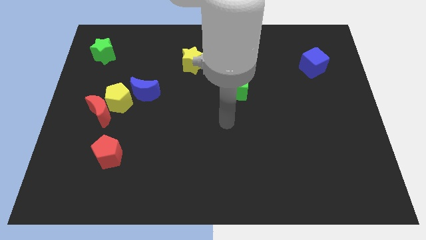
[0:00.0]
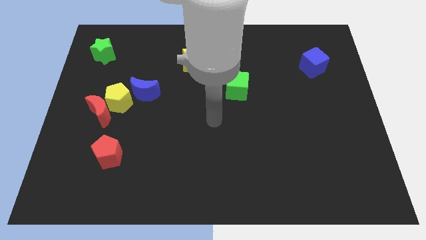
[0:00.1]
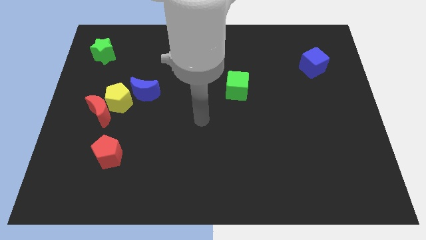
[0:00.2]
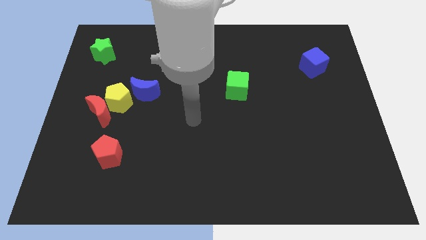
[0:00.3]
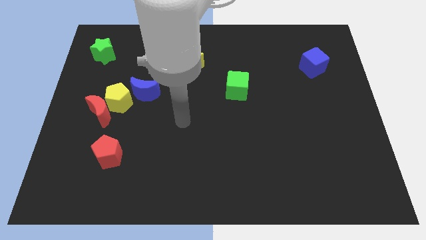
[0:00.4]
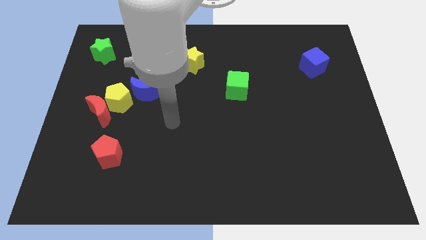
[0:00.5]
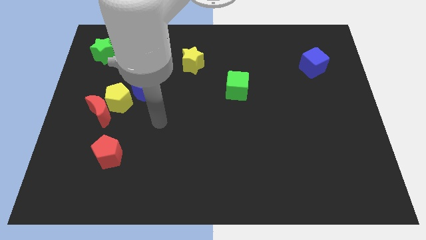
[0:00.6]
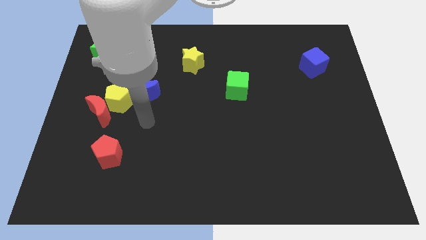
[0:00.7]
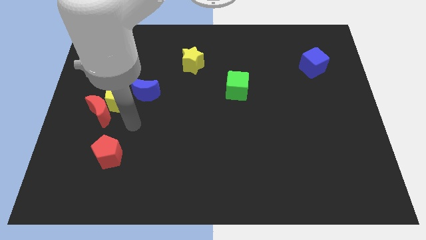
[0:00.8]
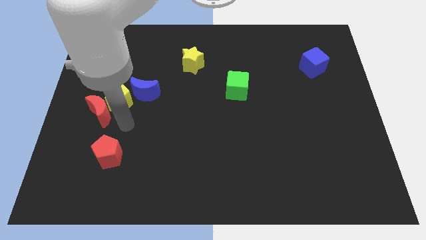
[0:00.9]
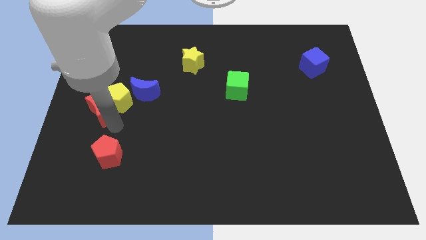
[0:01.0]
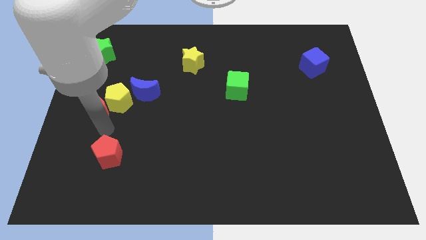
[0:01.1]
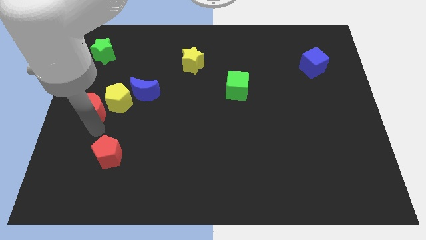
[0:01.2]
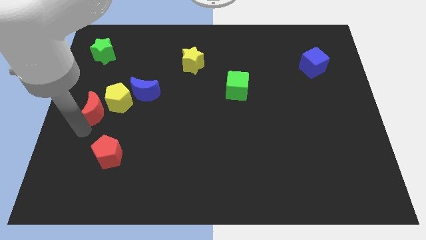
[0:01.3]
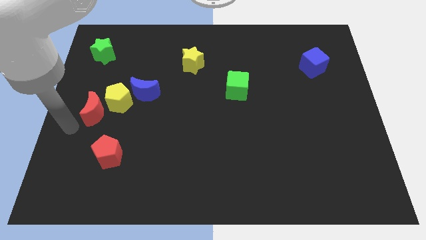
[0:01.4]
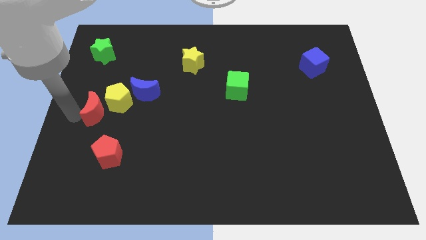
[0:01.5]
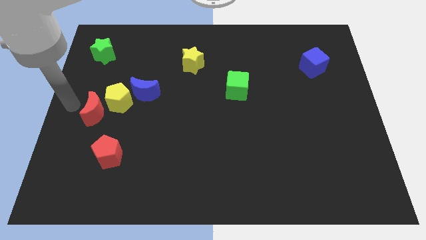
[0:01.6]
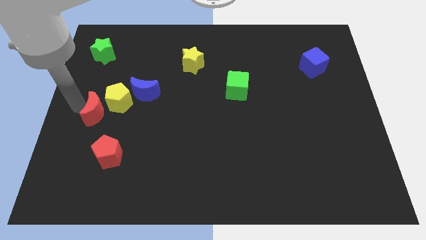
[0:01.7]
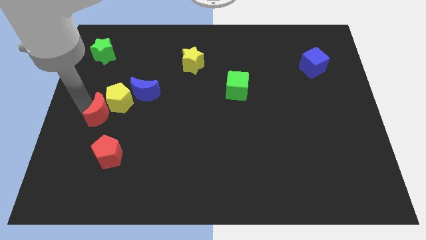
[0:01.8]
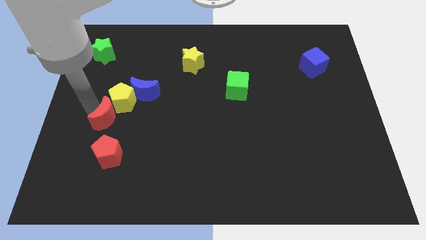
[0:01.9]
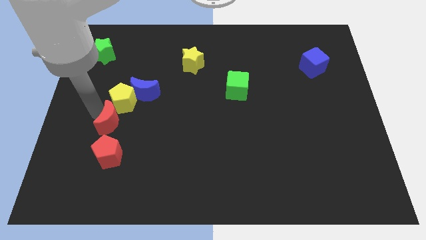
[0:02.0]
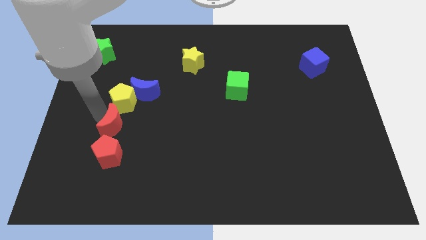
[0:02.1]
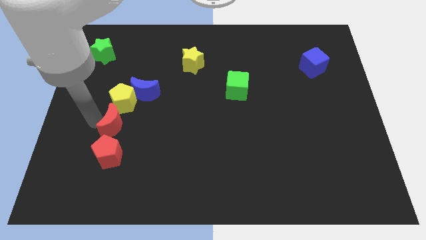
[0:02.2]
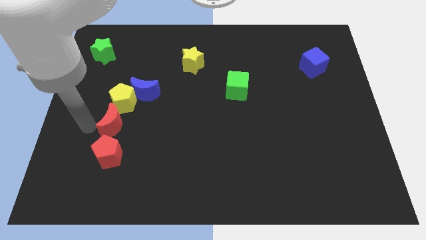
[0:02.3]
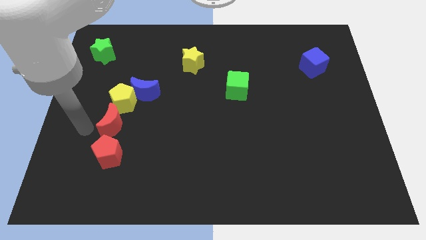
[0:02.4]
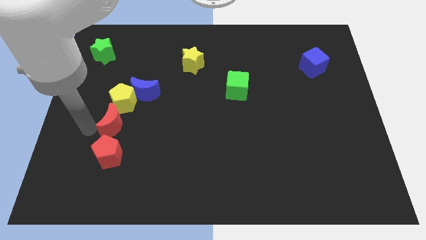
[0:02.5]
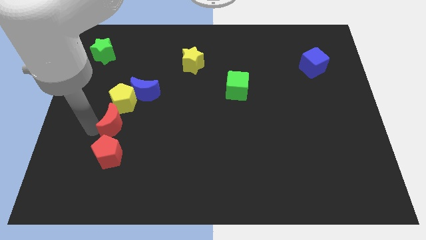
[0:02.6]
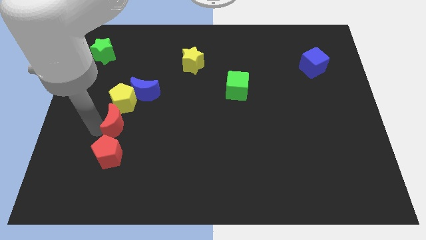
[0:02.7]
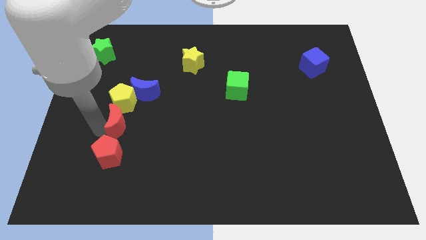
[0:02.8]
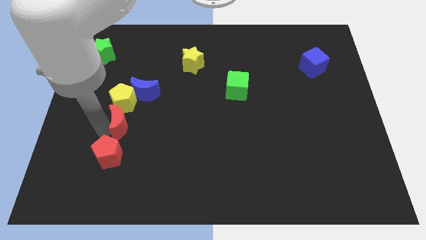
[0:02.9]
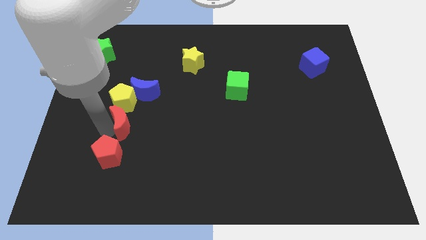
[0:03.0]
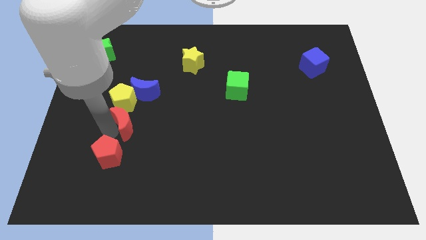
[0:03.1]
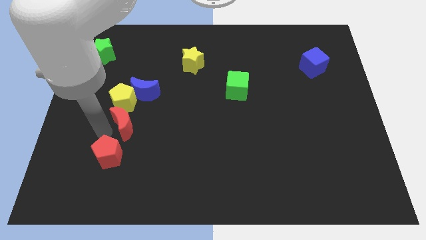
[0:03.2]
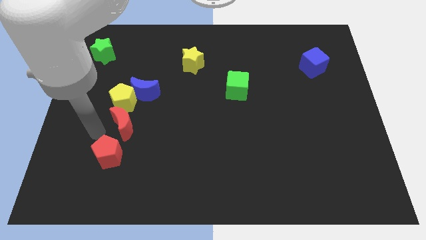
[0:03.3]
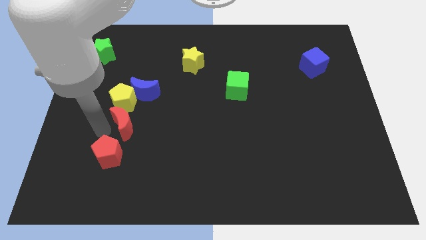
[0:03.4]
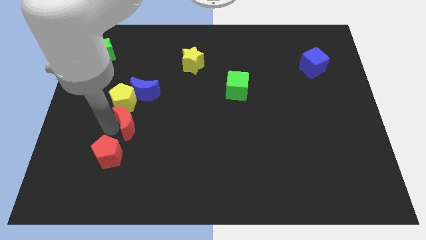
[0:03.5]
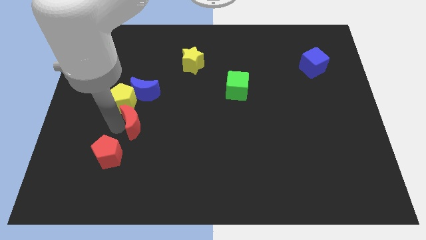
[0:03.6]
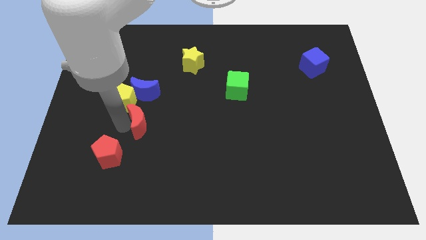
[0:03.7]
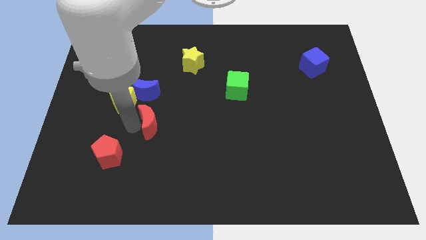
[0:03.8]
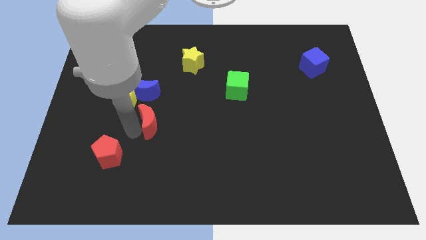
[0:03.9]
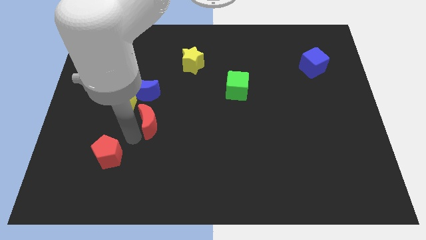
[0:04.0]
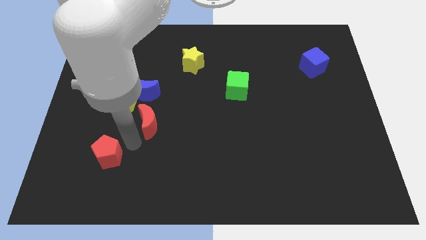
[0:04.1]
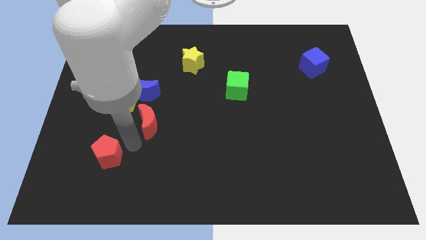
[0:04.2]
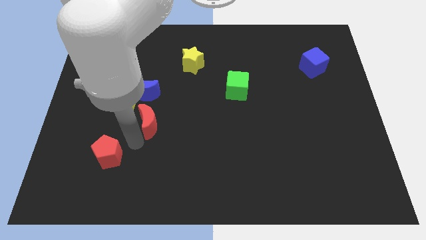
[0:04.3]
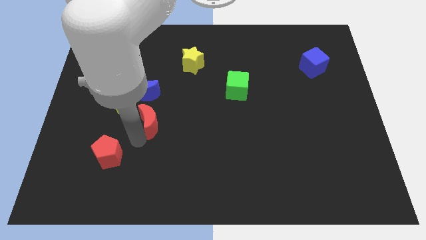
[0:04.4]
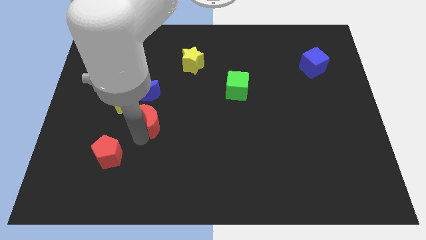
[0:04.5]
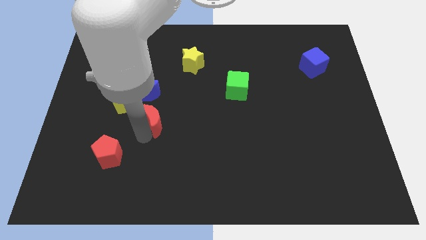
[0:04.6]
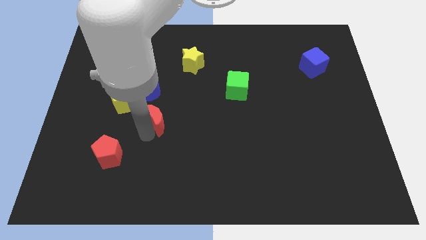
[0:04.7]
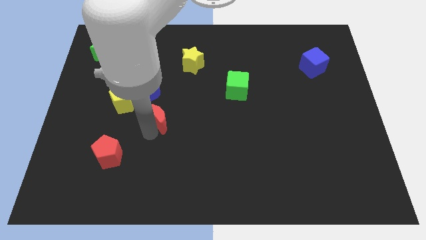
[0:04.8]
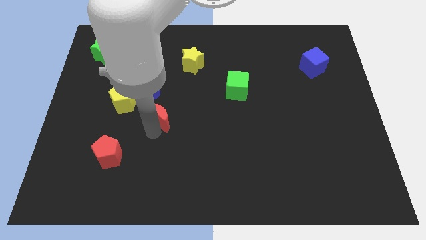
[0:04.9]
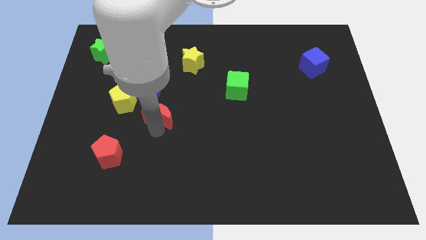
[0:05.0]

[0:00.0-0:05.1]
put the red moon right of the yellow pentagon

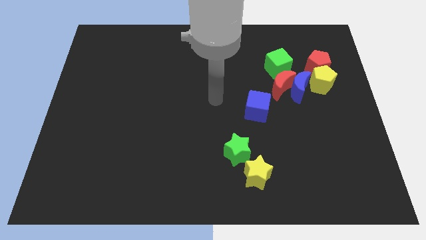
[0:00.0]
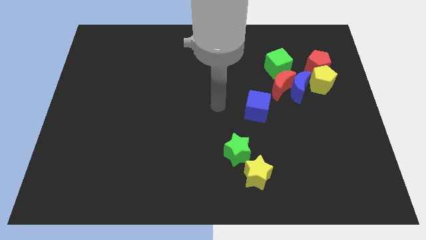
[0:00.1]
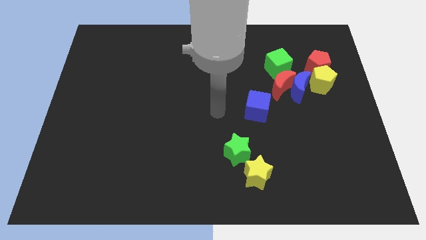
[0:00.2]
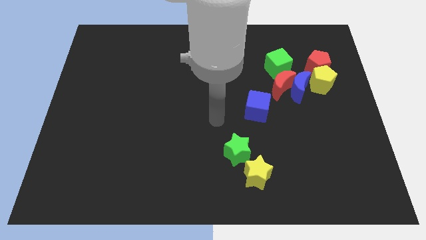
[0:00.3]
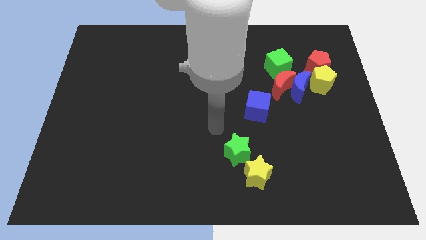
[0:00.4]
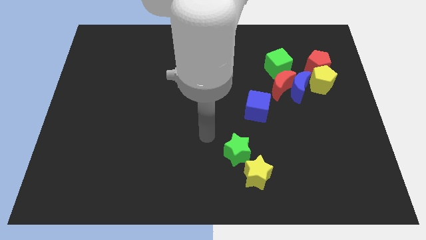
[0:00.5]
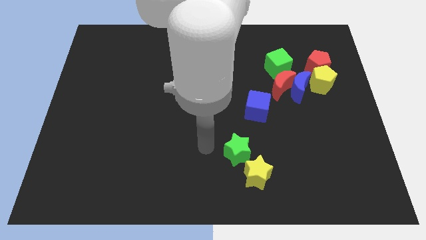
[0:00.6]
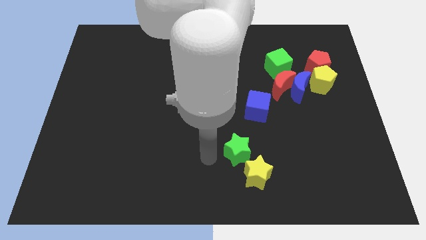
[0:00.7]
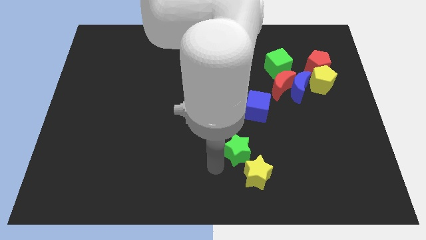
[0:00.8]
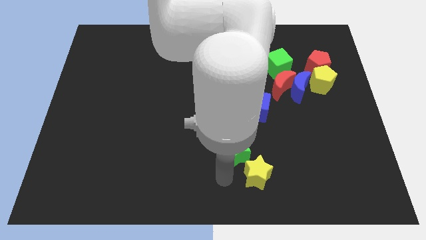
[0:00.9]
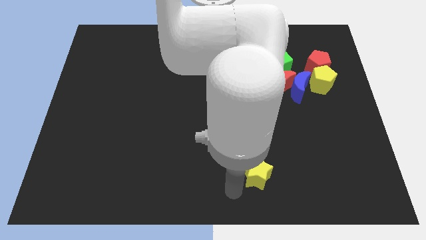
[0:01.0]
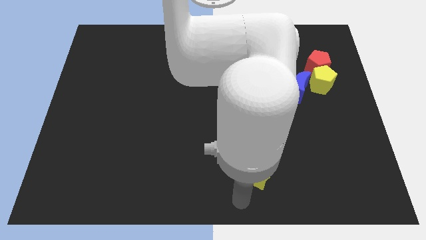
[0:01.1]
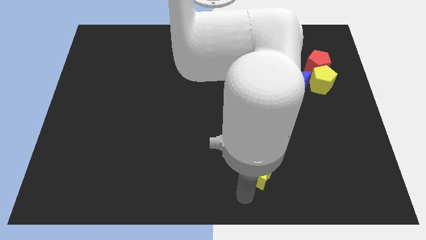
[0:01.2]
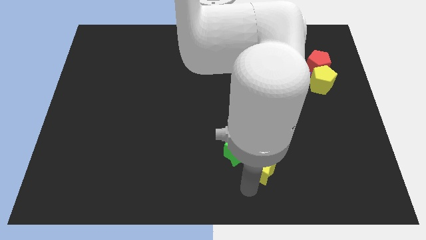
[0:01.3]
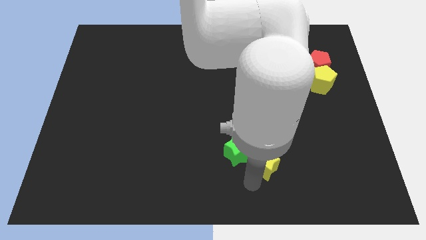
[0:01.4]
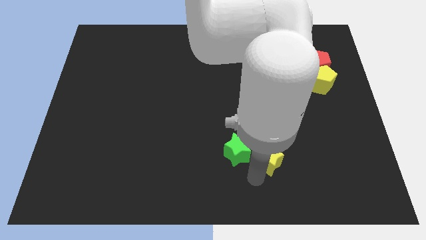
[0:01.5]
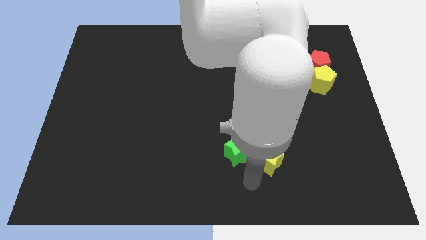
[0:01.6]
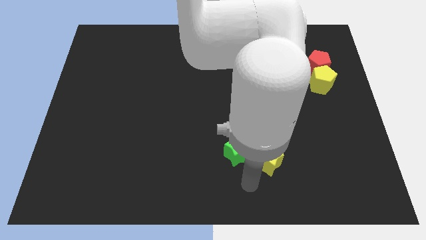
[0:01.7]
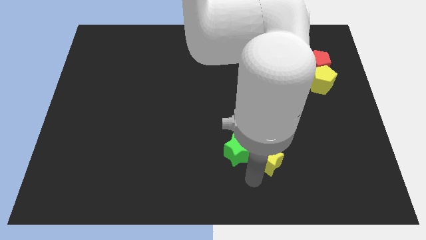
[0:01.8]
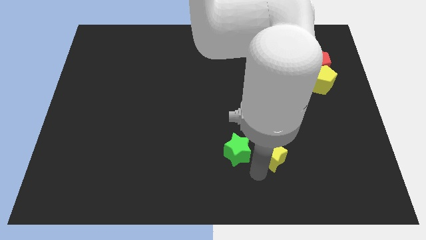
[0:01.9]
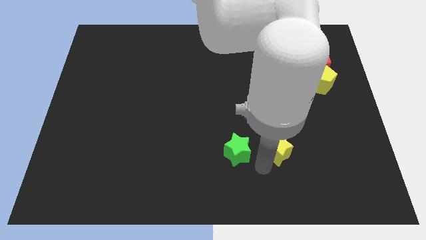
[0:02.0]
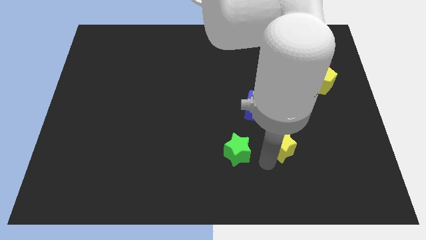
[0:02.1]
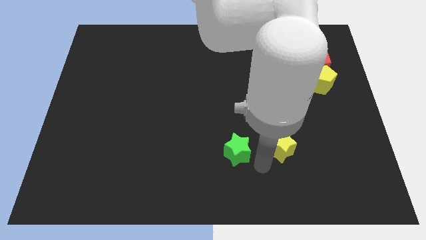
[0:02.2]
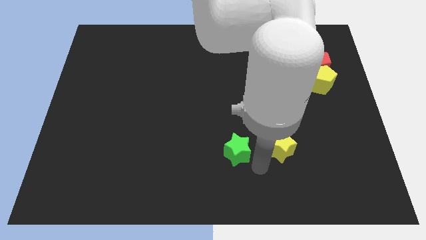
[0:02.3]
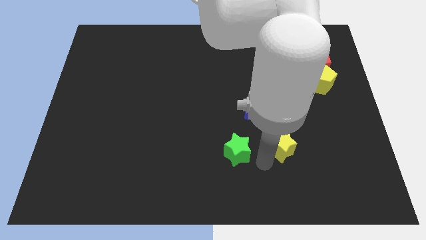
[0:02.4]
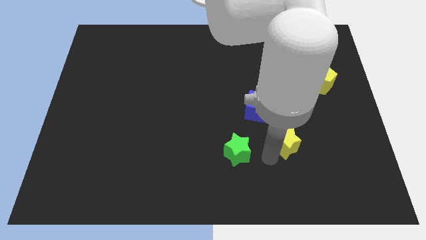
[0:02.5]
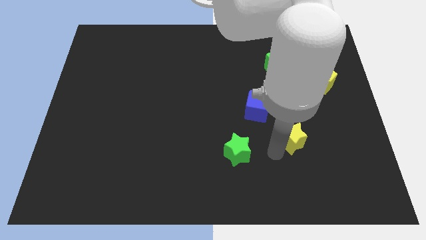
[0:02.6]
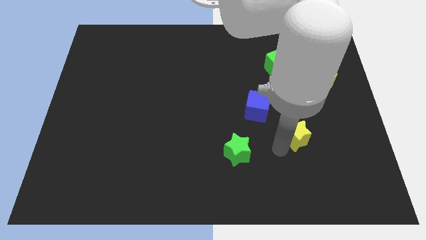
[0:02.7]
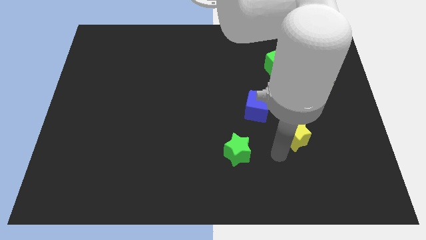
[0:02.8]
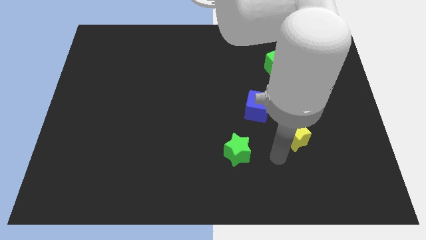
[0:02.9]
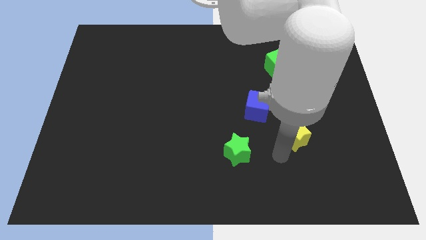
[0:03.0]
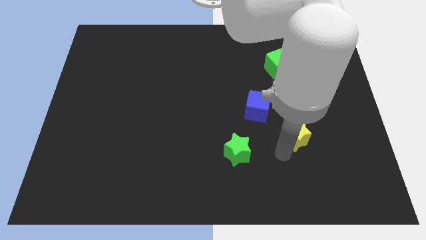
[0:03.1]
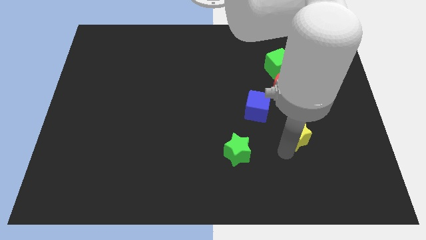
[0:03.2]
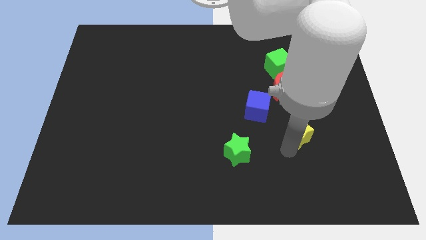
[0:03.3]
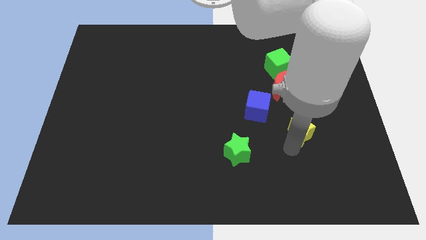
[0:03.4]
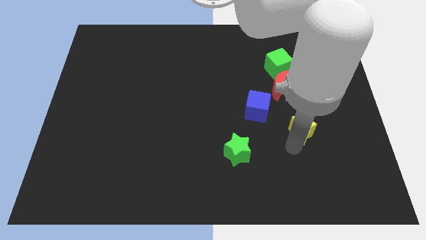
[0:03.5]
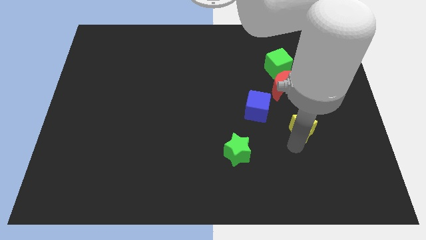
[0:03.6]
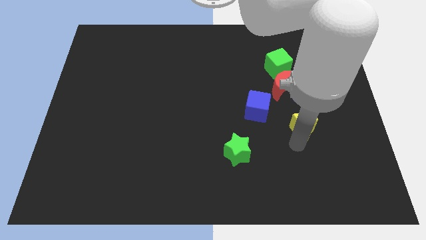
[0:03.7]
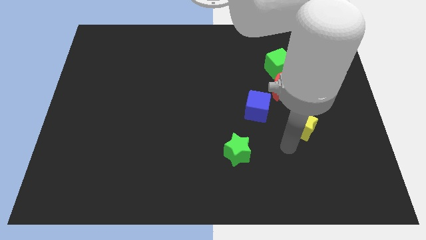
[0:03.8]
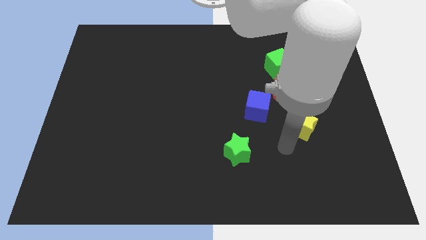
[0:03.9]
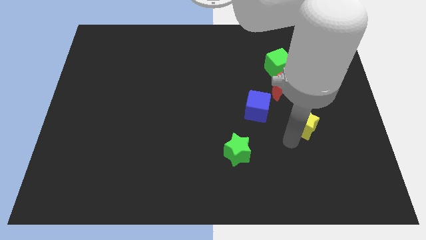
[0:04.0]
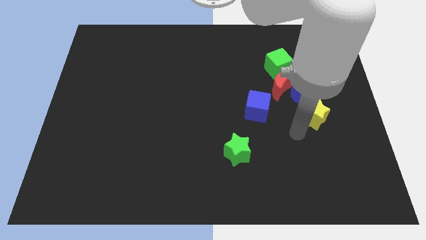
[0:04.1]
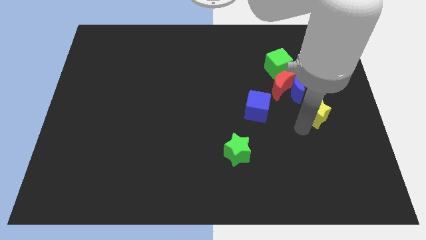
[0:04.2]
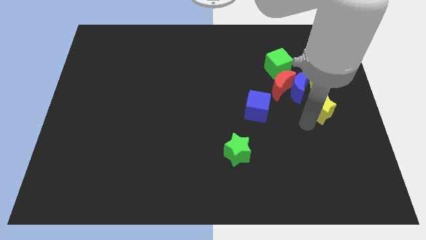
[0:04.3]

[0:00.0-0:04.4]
push the yellow star to the bottom of the red pentagon
